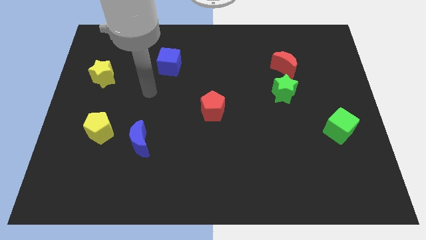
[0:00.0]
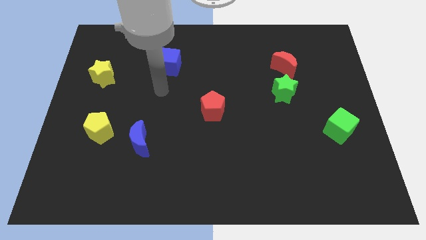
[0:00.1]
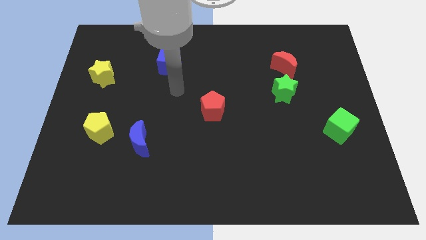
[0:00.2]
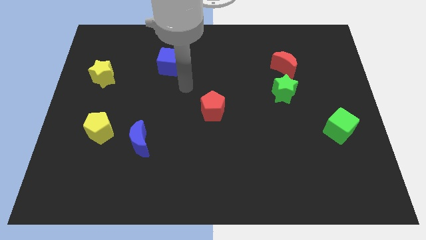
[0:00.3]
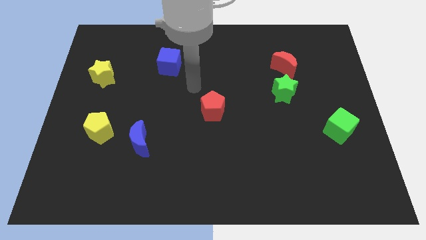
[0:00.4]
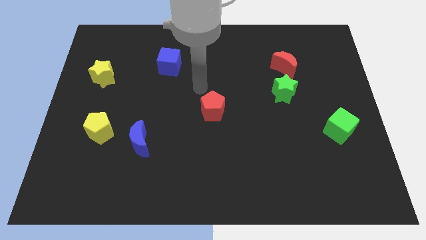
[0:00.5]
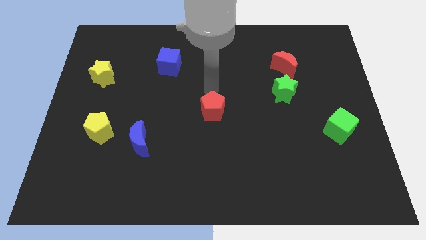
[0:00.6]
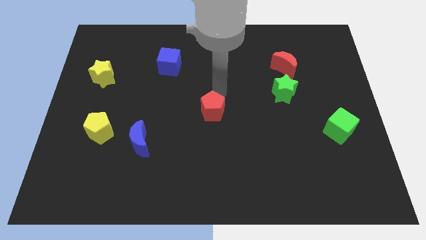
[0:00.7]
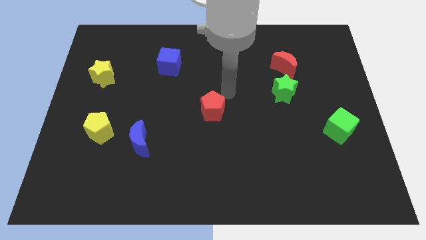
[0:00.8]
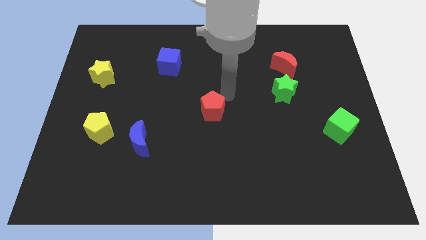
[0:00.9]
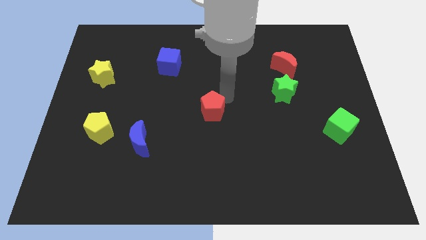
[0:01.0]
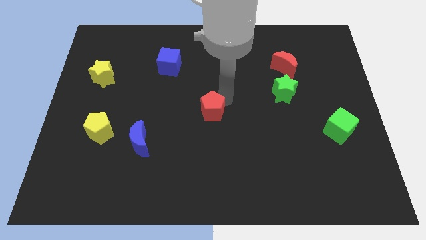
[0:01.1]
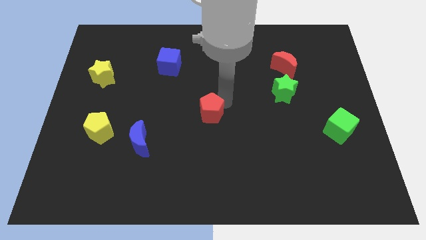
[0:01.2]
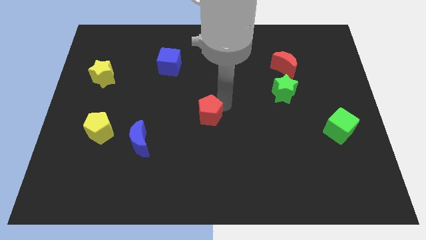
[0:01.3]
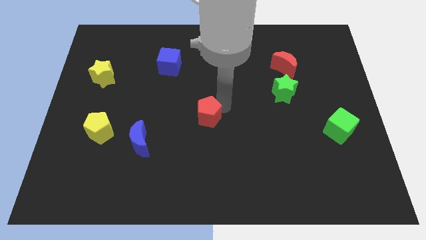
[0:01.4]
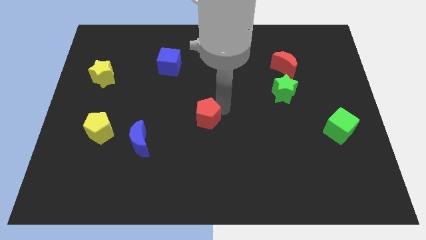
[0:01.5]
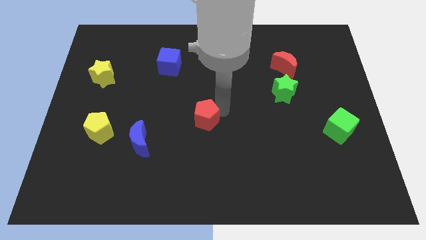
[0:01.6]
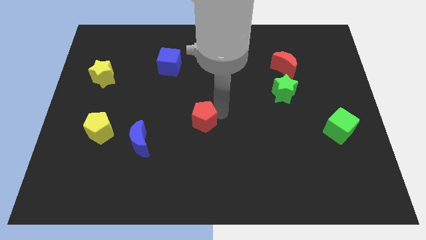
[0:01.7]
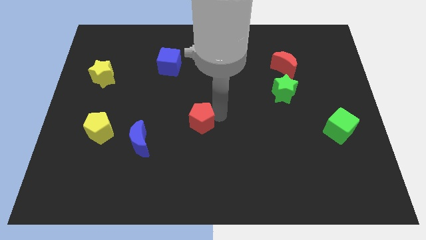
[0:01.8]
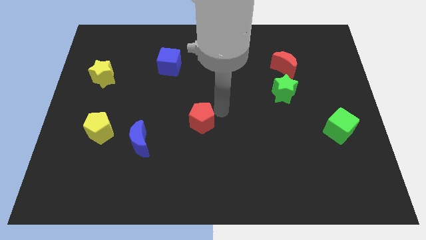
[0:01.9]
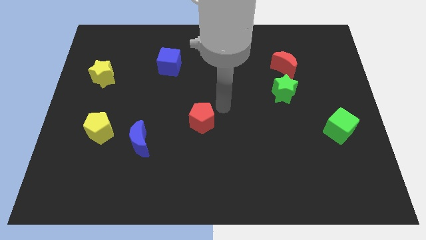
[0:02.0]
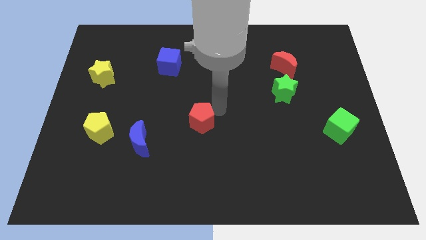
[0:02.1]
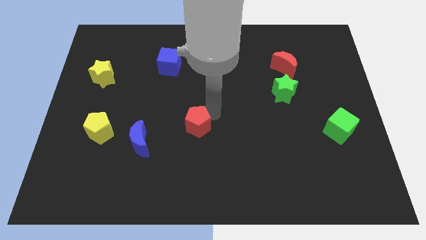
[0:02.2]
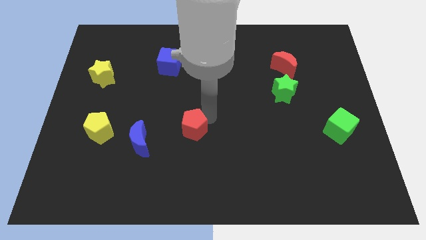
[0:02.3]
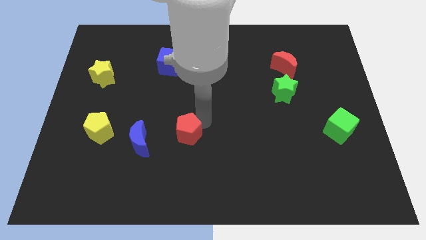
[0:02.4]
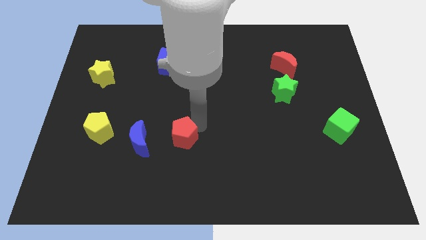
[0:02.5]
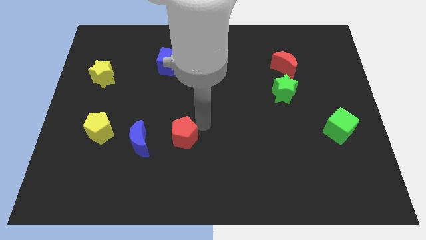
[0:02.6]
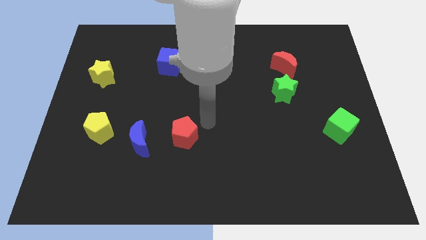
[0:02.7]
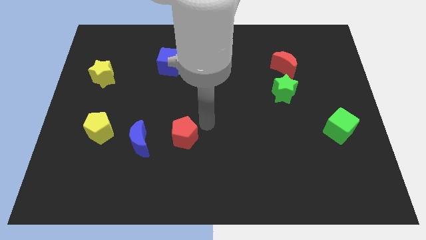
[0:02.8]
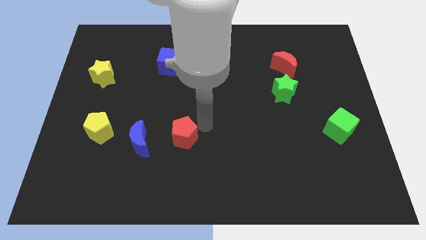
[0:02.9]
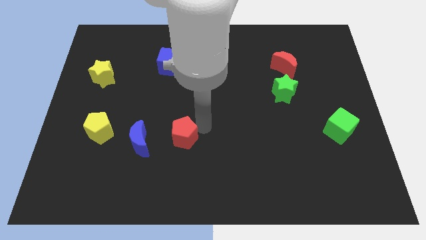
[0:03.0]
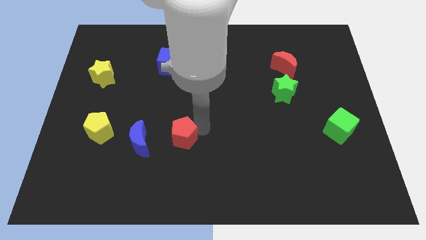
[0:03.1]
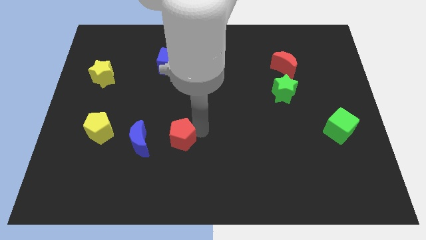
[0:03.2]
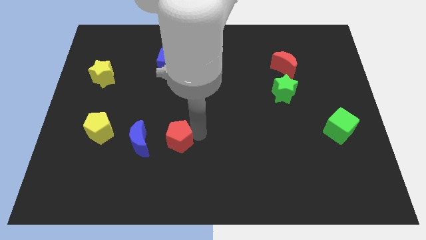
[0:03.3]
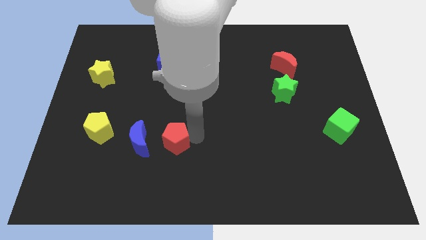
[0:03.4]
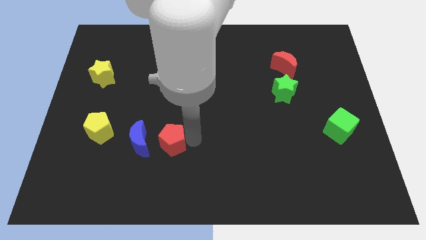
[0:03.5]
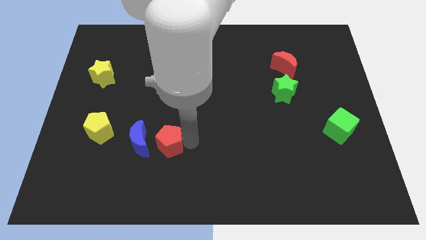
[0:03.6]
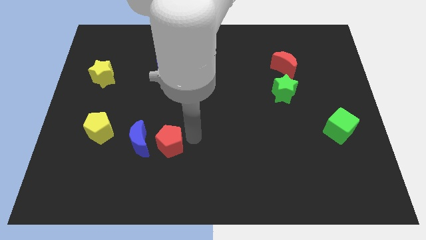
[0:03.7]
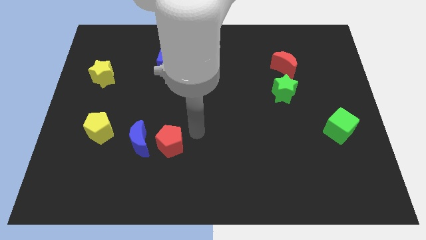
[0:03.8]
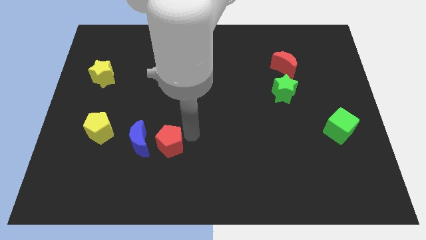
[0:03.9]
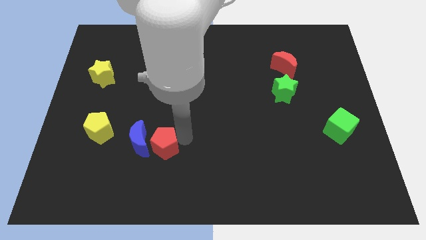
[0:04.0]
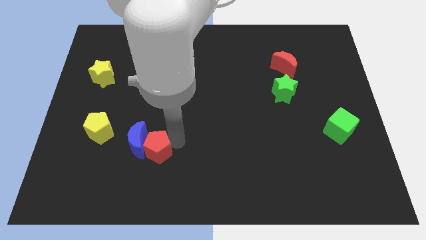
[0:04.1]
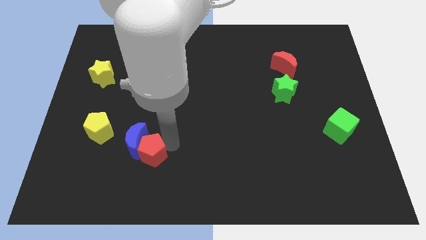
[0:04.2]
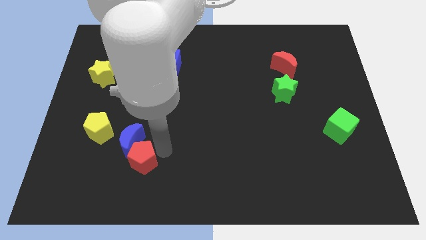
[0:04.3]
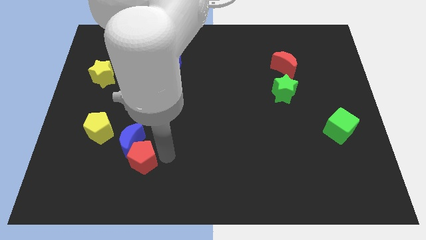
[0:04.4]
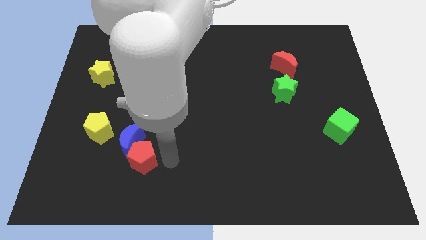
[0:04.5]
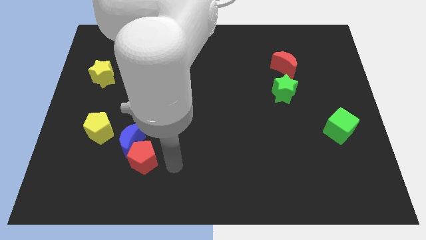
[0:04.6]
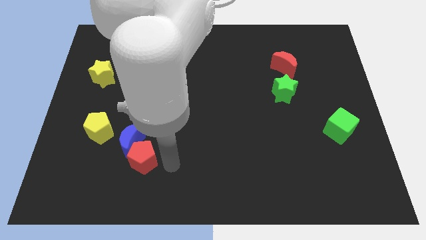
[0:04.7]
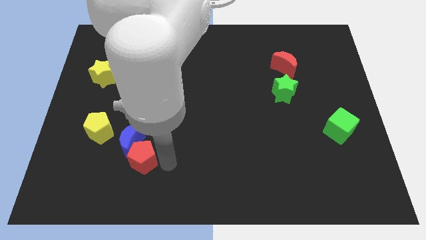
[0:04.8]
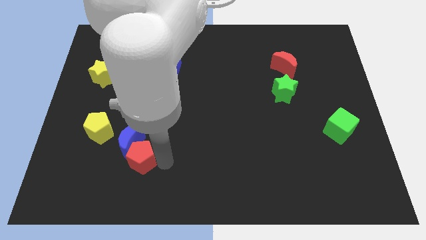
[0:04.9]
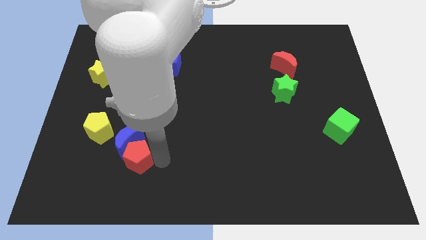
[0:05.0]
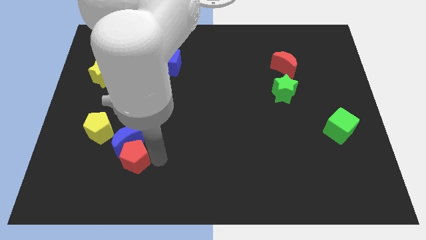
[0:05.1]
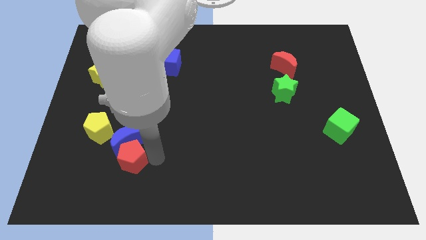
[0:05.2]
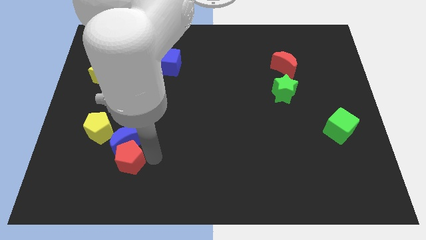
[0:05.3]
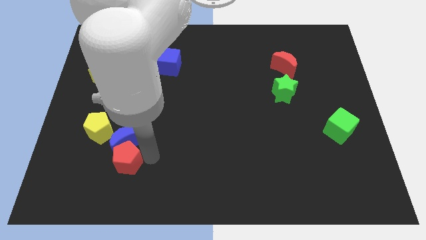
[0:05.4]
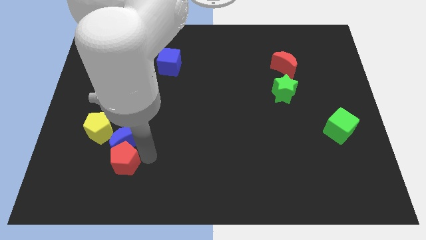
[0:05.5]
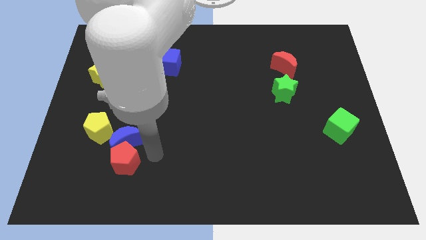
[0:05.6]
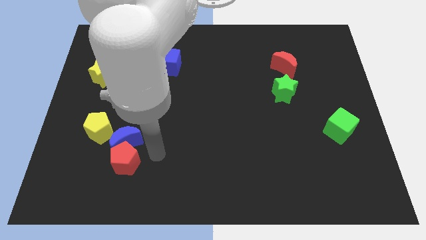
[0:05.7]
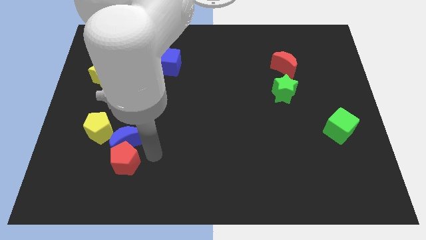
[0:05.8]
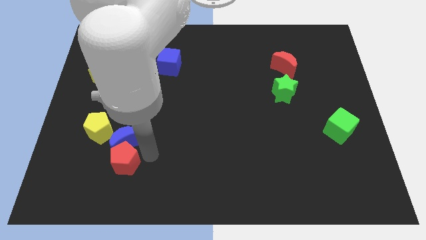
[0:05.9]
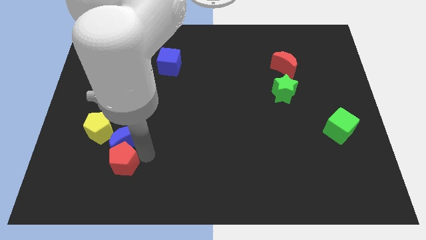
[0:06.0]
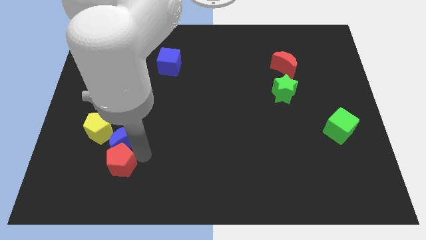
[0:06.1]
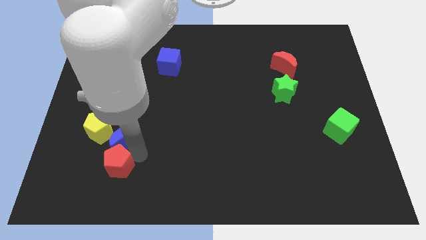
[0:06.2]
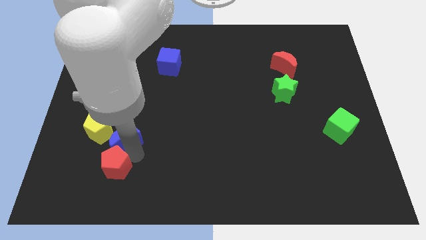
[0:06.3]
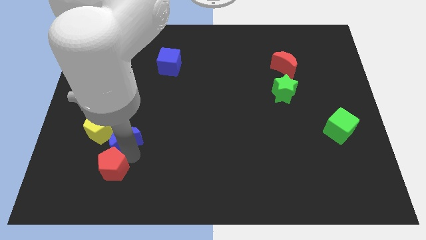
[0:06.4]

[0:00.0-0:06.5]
slide the red pentagon to the bottom of the yellow pentagon

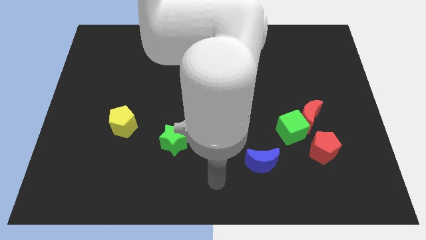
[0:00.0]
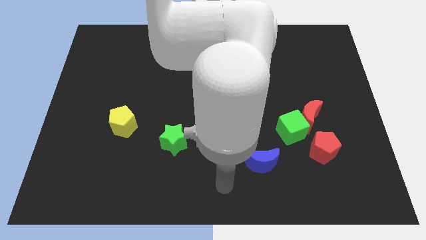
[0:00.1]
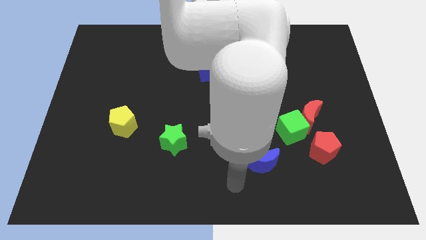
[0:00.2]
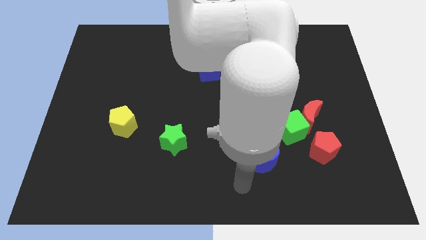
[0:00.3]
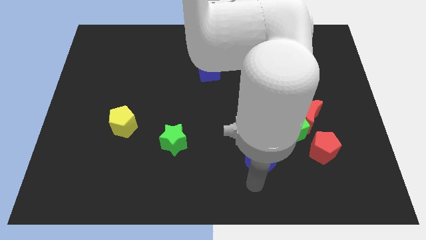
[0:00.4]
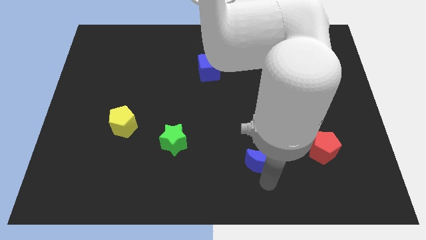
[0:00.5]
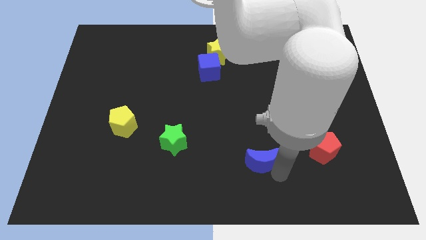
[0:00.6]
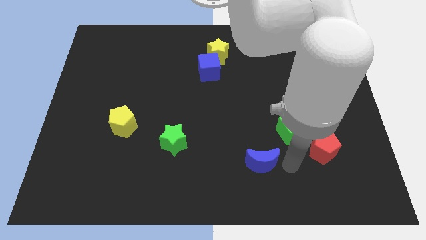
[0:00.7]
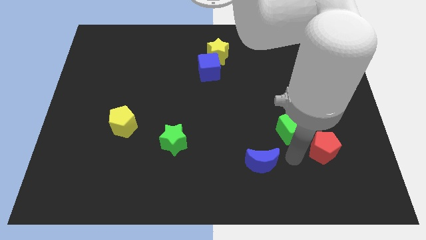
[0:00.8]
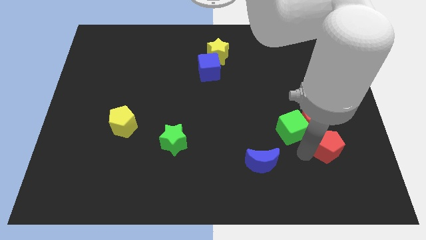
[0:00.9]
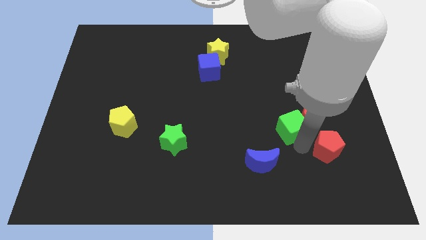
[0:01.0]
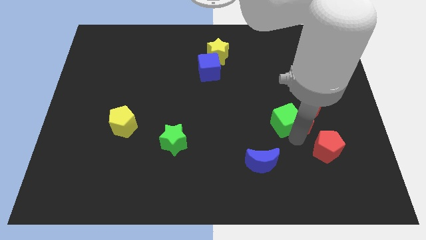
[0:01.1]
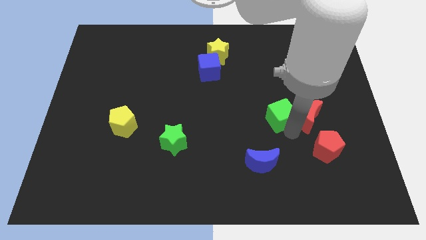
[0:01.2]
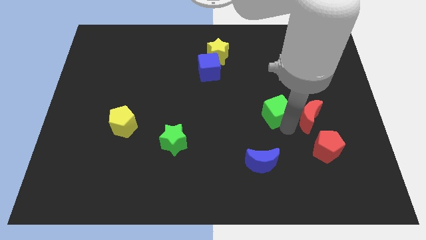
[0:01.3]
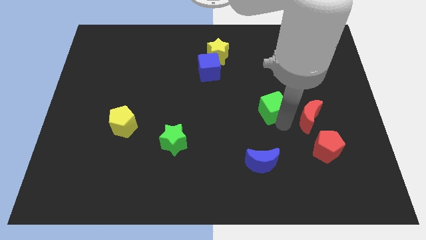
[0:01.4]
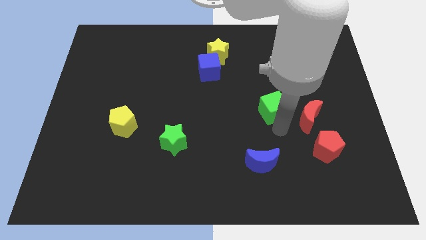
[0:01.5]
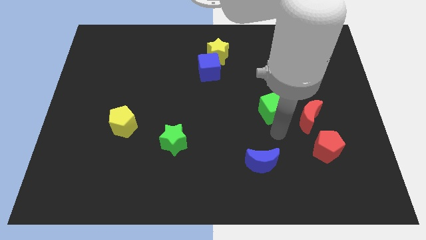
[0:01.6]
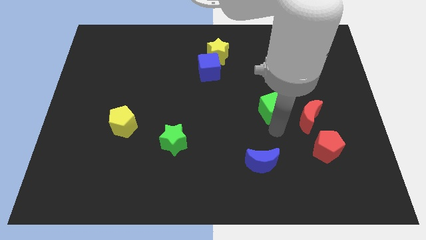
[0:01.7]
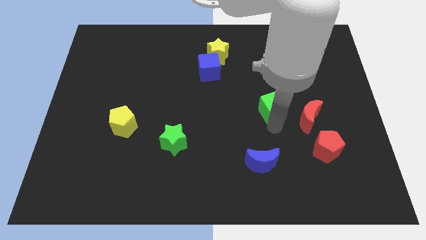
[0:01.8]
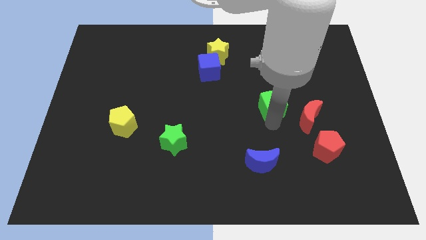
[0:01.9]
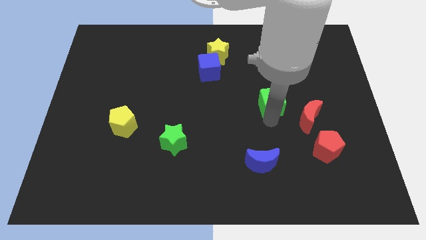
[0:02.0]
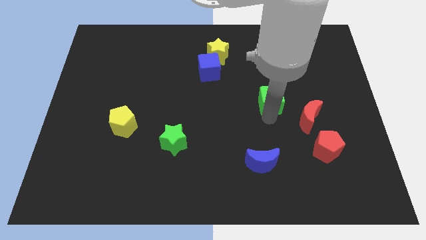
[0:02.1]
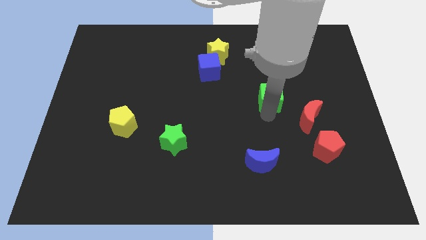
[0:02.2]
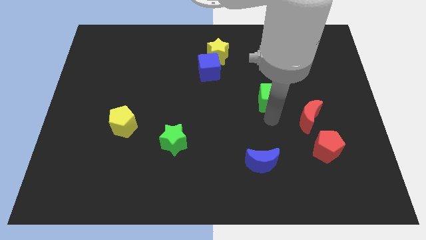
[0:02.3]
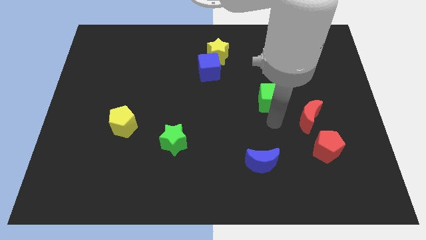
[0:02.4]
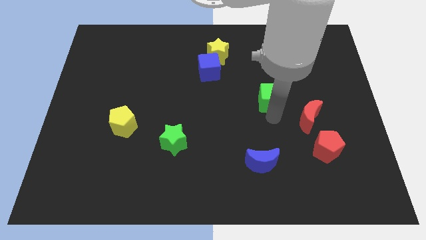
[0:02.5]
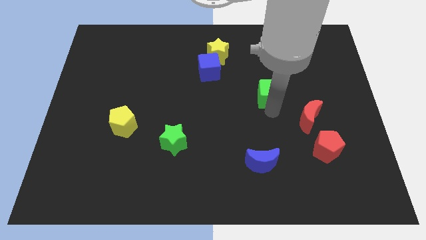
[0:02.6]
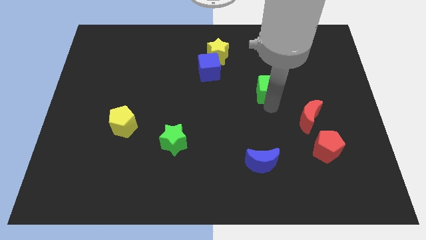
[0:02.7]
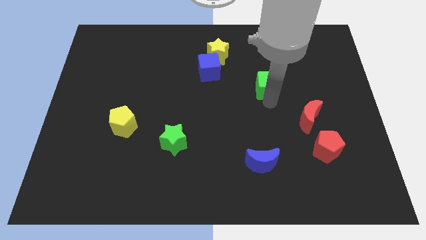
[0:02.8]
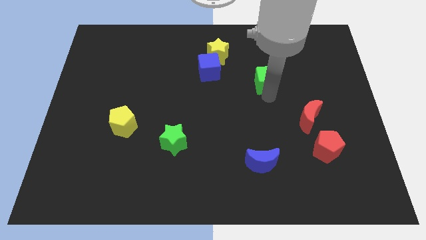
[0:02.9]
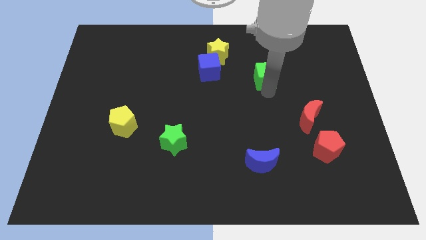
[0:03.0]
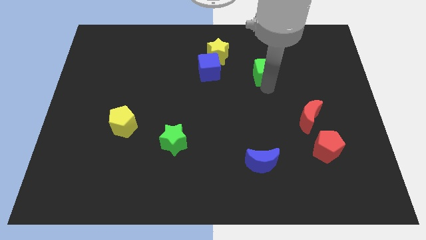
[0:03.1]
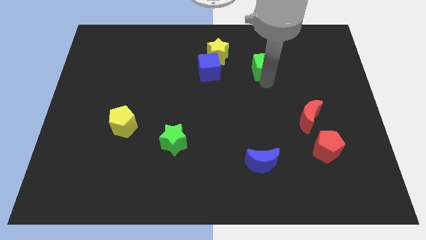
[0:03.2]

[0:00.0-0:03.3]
slide the green cube to the right of the yellow star
